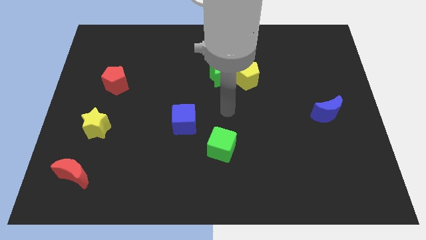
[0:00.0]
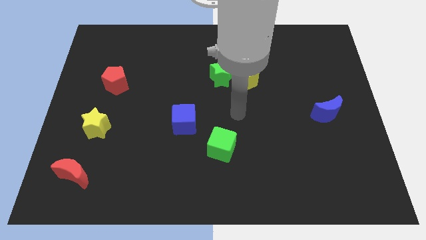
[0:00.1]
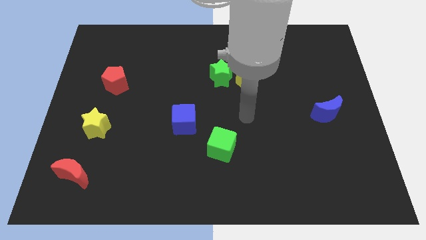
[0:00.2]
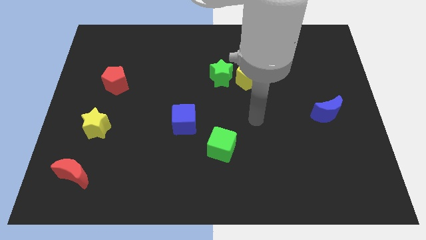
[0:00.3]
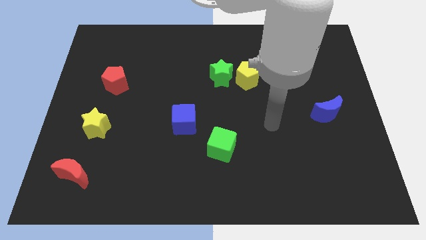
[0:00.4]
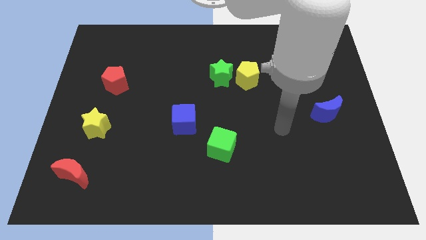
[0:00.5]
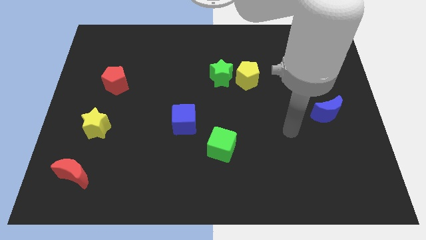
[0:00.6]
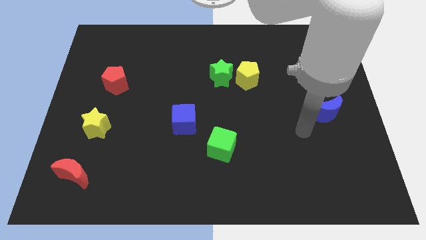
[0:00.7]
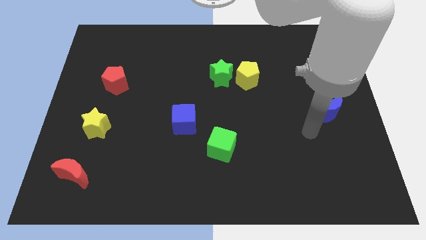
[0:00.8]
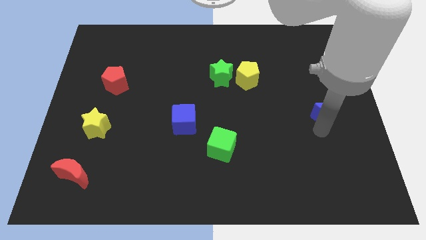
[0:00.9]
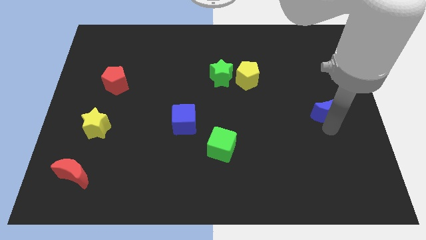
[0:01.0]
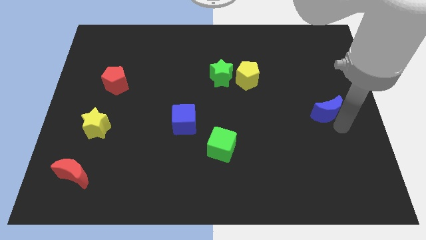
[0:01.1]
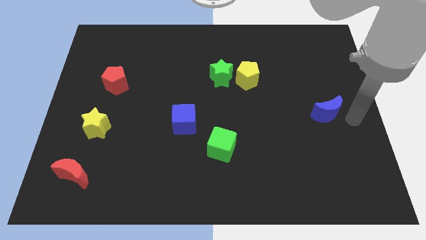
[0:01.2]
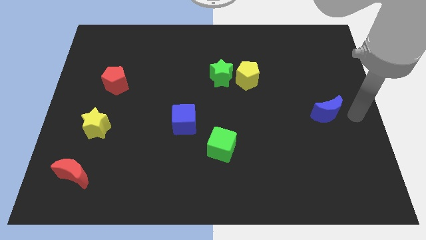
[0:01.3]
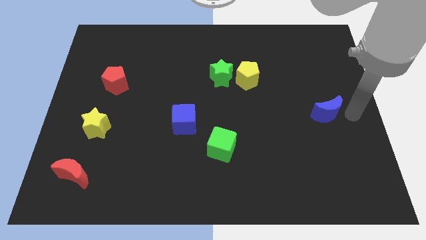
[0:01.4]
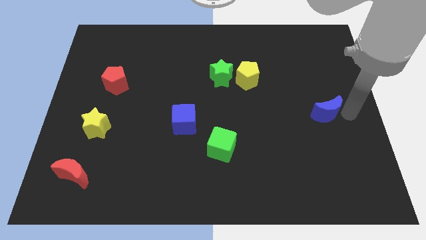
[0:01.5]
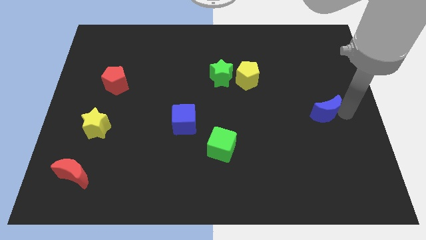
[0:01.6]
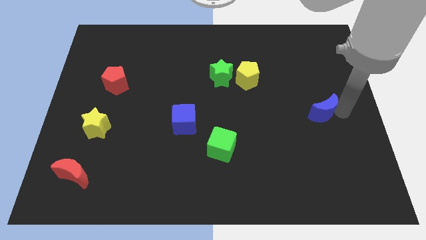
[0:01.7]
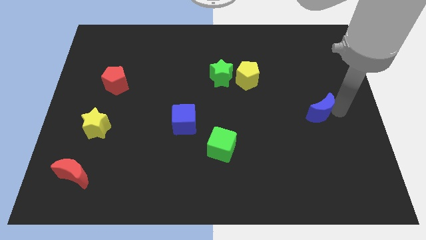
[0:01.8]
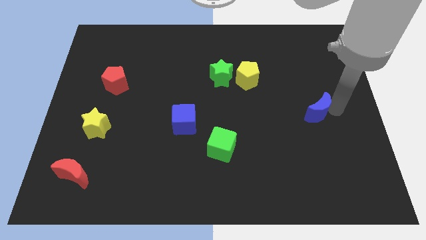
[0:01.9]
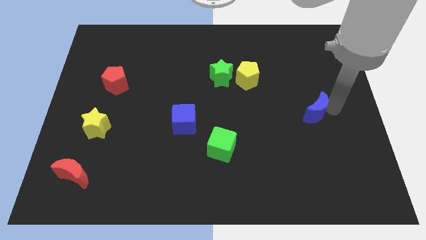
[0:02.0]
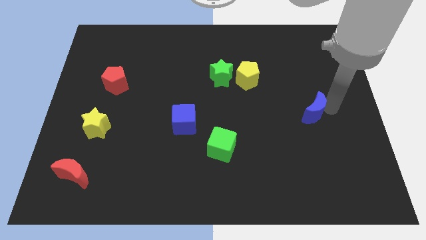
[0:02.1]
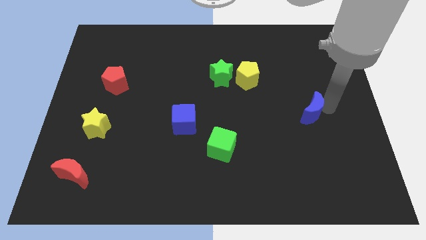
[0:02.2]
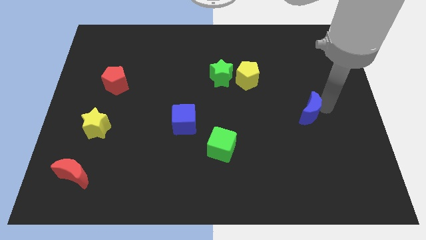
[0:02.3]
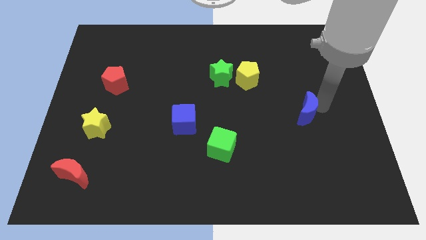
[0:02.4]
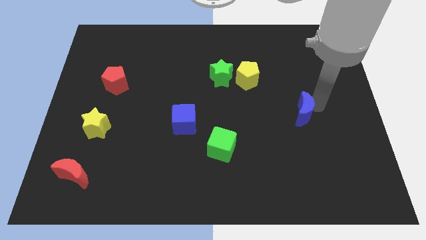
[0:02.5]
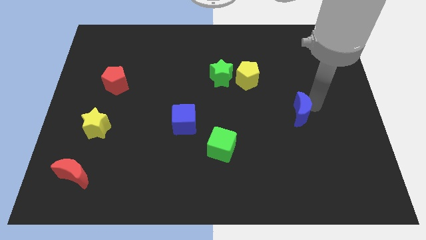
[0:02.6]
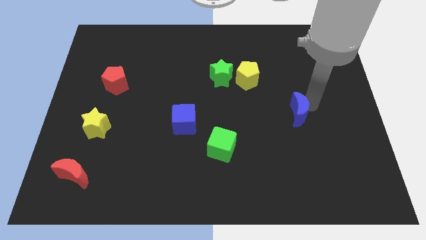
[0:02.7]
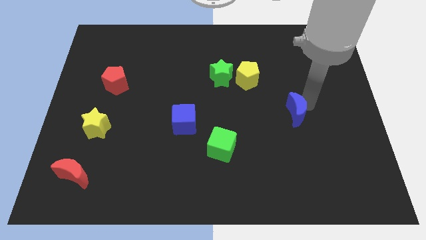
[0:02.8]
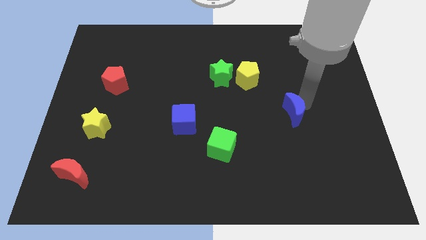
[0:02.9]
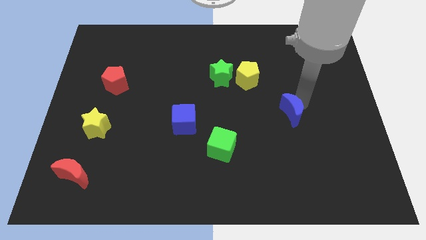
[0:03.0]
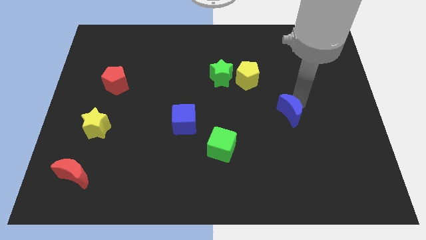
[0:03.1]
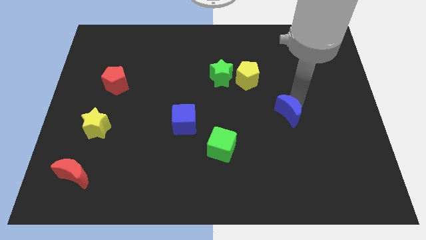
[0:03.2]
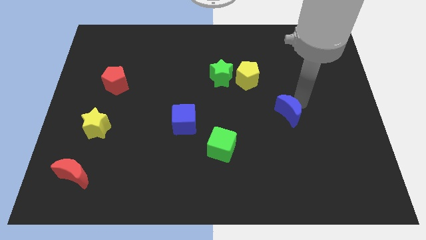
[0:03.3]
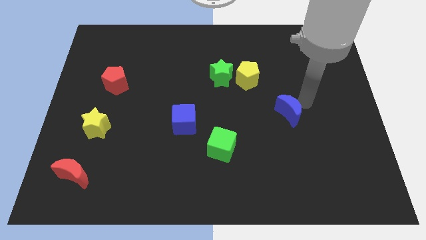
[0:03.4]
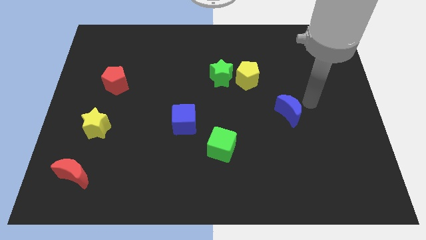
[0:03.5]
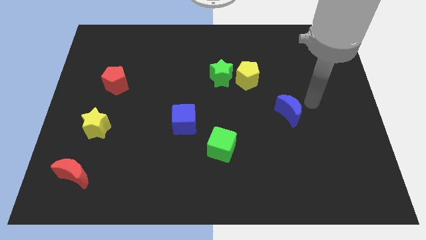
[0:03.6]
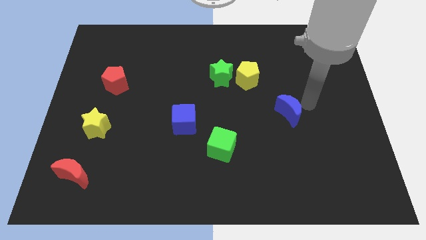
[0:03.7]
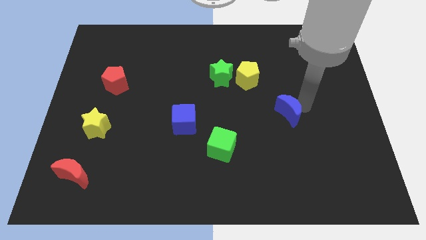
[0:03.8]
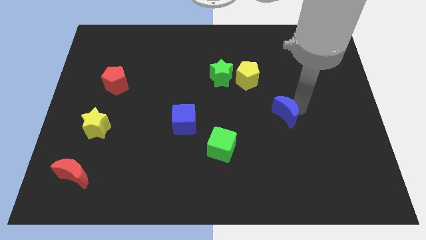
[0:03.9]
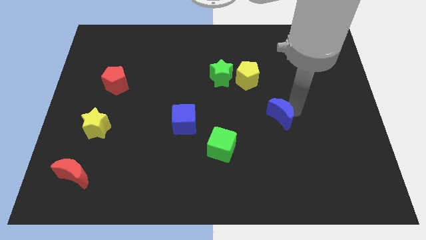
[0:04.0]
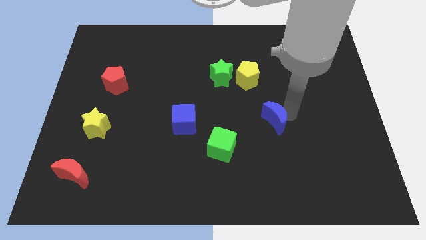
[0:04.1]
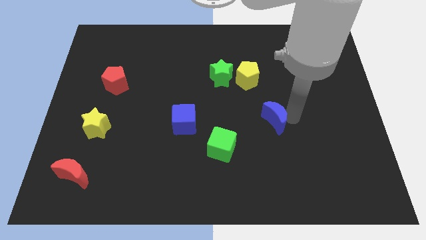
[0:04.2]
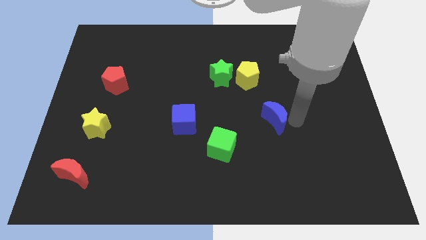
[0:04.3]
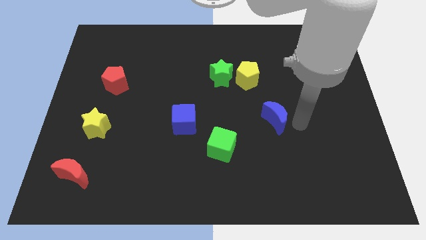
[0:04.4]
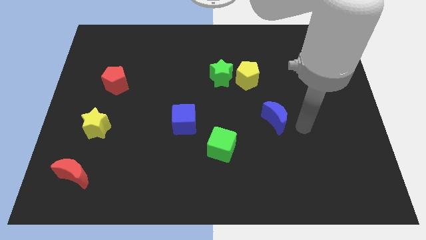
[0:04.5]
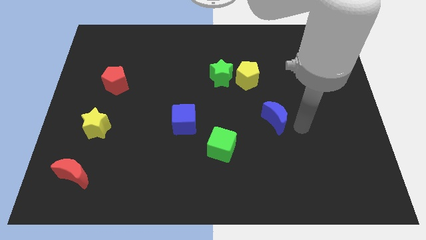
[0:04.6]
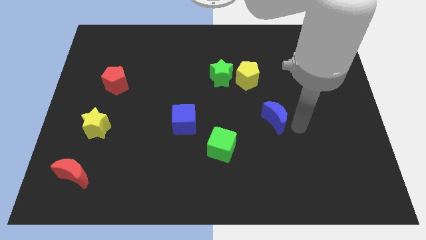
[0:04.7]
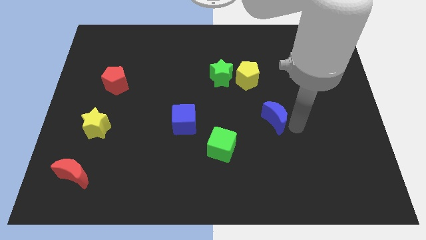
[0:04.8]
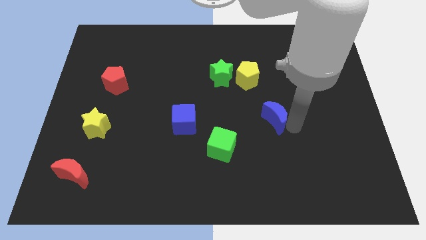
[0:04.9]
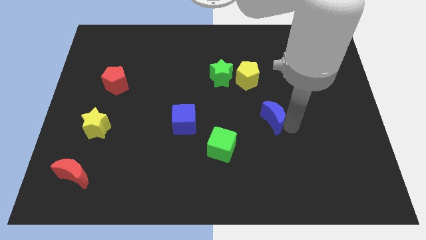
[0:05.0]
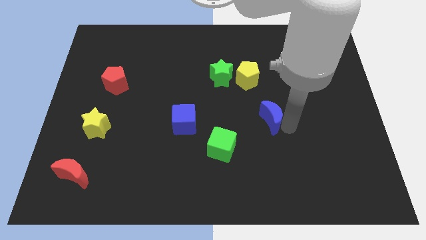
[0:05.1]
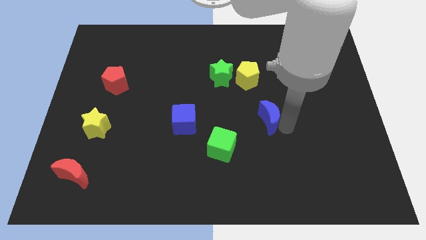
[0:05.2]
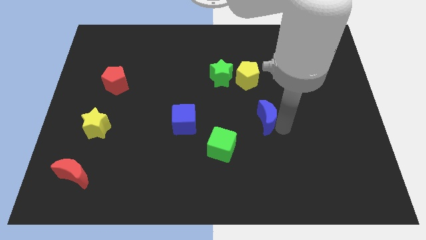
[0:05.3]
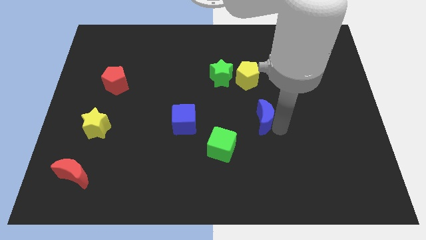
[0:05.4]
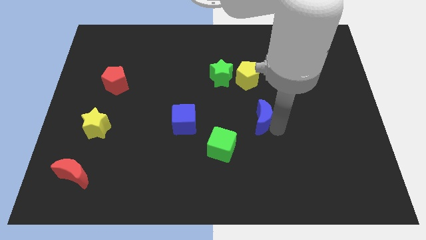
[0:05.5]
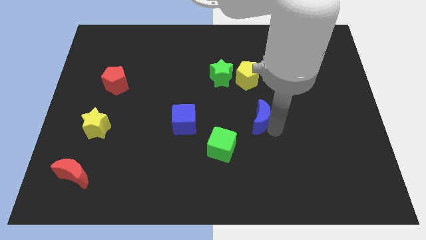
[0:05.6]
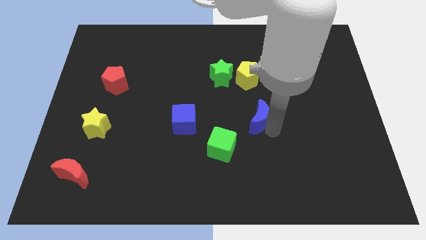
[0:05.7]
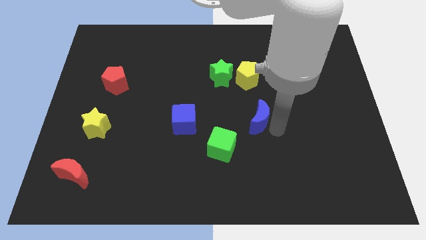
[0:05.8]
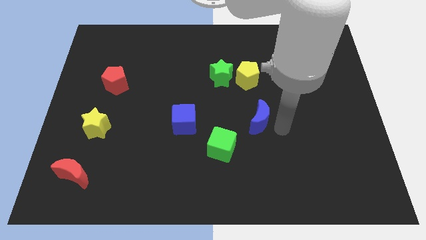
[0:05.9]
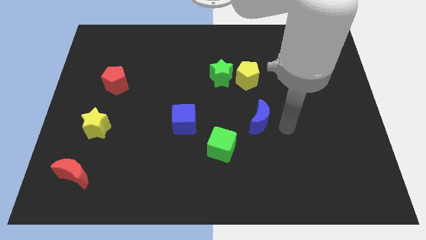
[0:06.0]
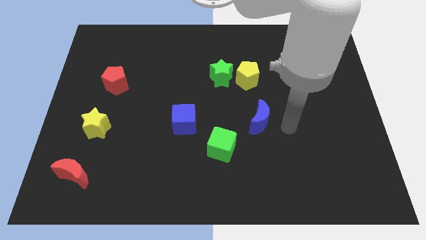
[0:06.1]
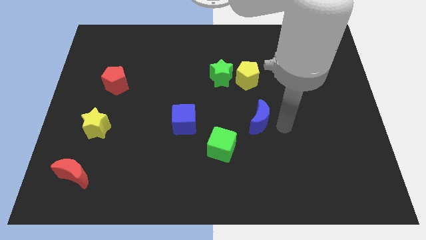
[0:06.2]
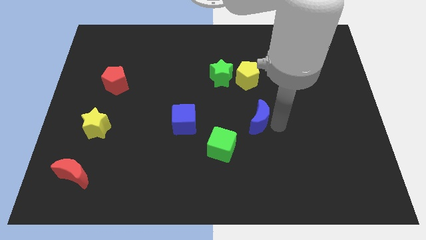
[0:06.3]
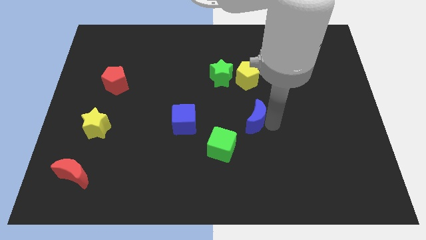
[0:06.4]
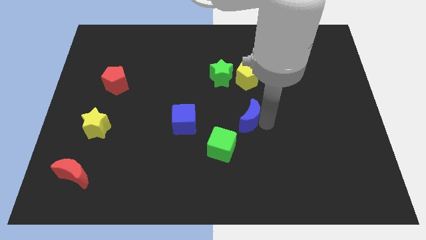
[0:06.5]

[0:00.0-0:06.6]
move the blue moon just right of the blue cube

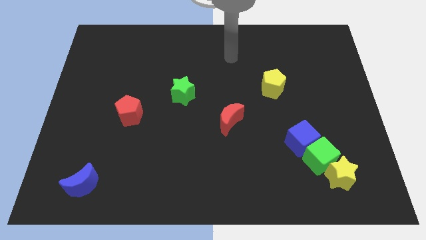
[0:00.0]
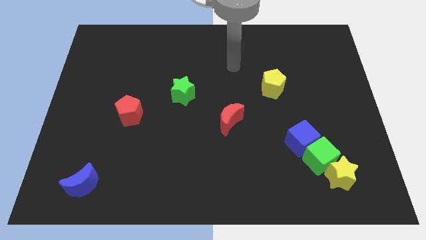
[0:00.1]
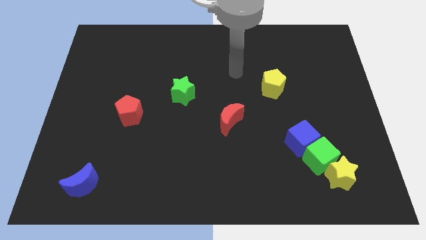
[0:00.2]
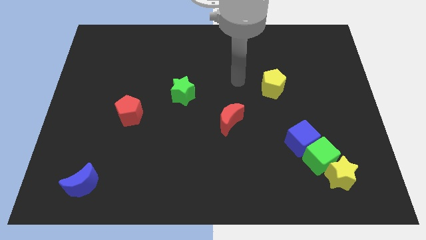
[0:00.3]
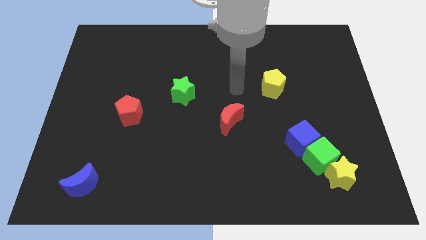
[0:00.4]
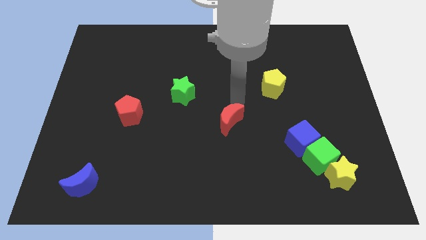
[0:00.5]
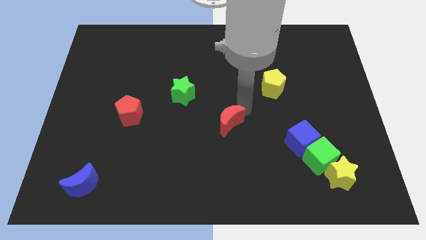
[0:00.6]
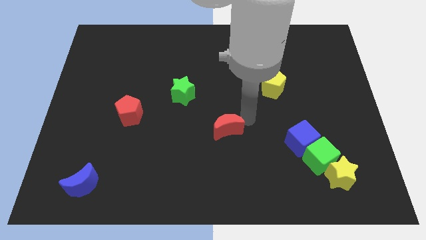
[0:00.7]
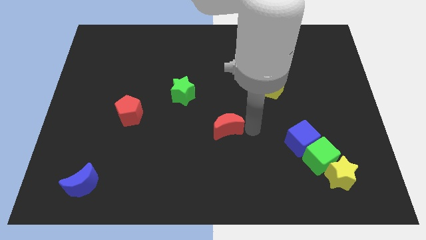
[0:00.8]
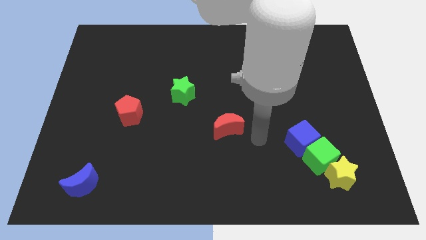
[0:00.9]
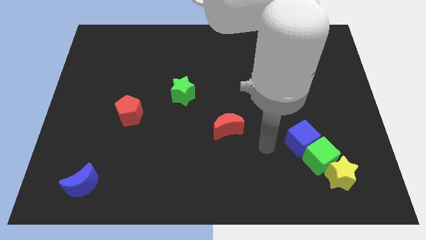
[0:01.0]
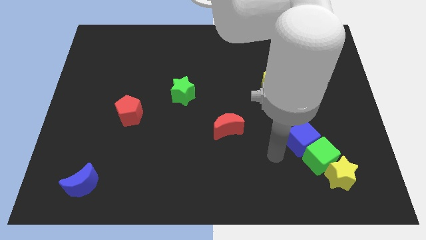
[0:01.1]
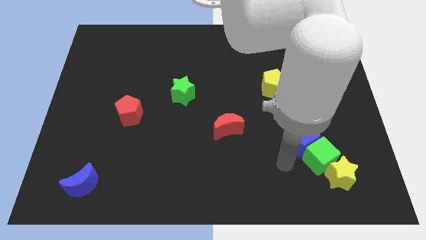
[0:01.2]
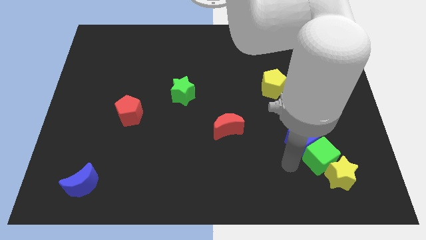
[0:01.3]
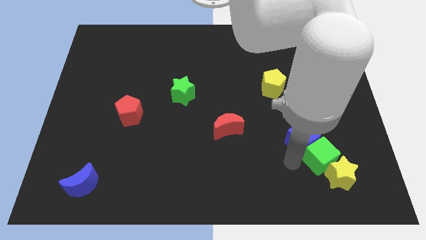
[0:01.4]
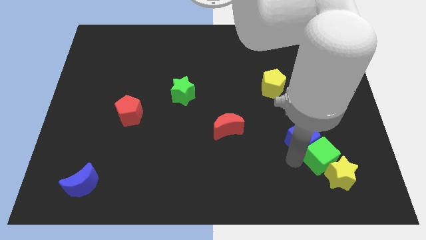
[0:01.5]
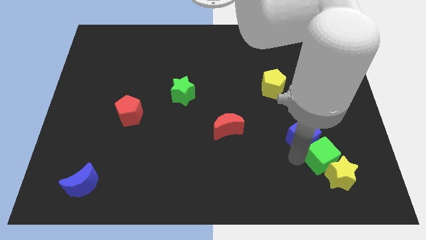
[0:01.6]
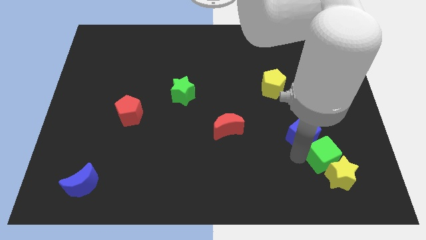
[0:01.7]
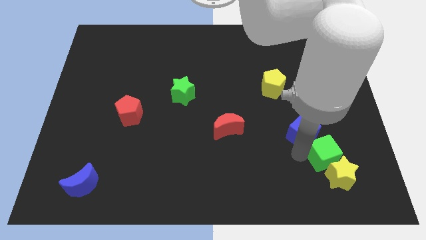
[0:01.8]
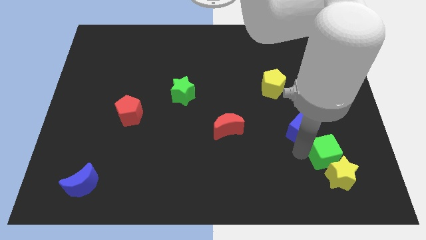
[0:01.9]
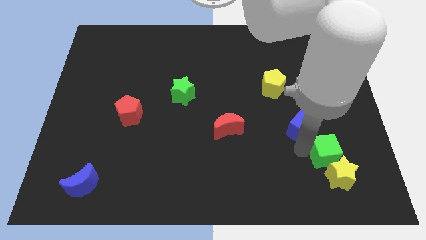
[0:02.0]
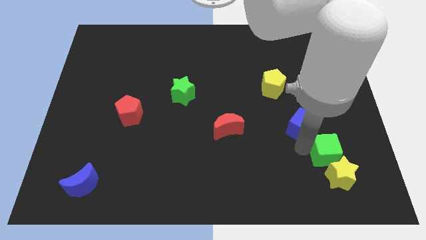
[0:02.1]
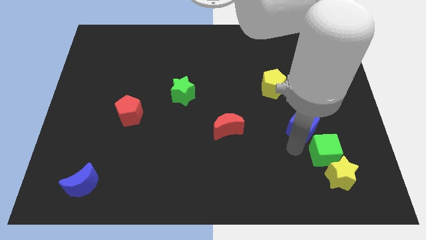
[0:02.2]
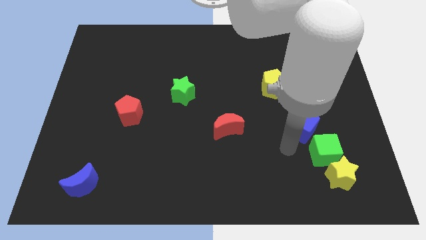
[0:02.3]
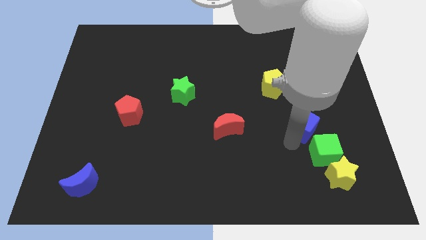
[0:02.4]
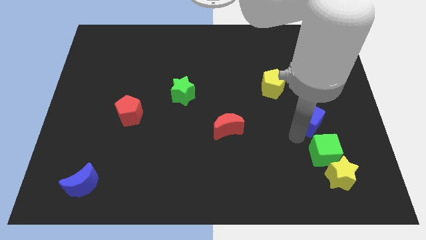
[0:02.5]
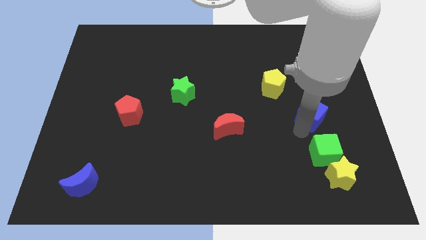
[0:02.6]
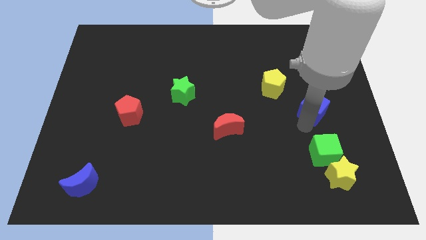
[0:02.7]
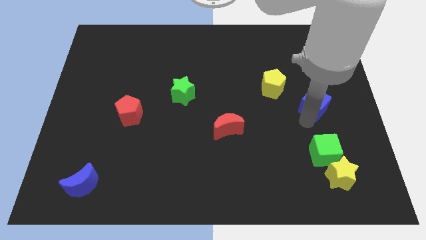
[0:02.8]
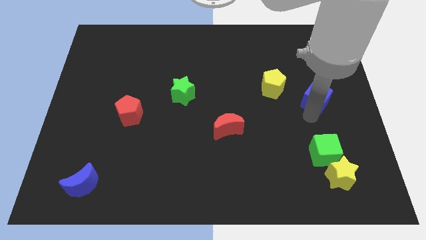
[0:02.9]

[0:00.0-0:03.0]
put the blue cube just right of the yellow pentagon
